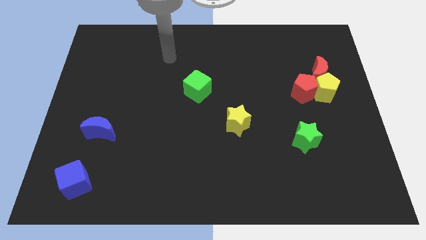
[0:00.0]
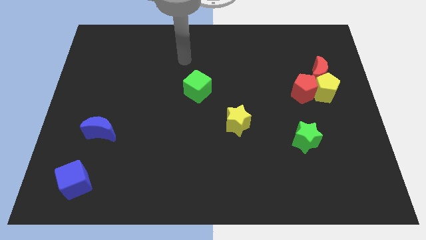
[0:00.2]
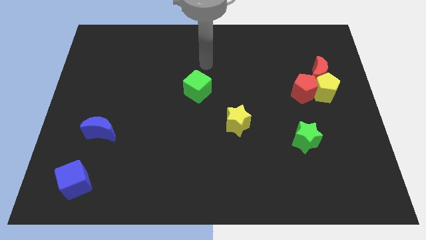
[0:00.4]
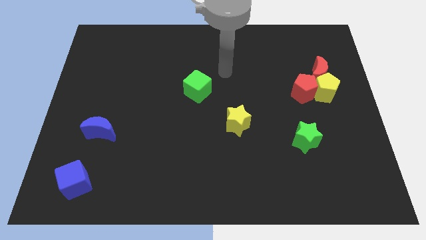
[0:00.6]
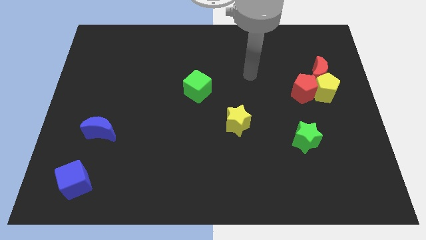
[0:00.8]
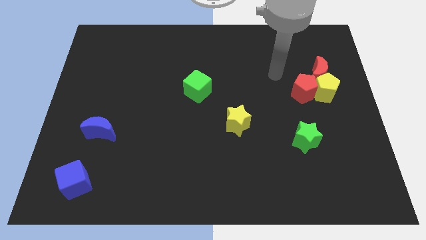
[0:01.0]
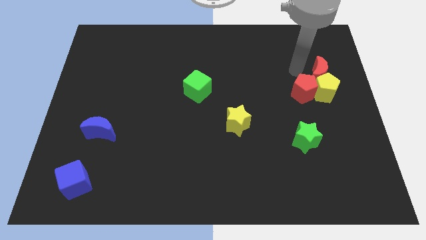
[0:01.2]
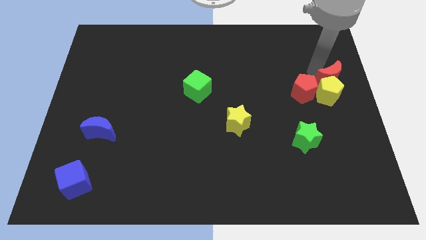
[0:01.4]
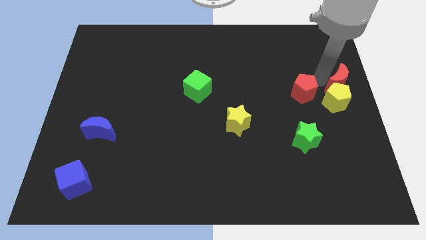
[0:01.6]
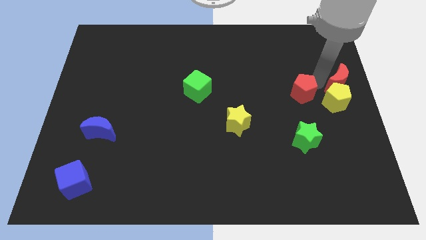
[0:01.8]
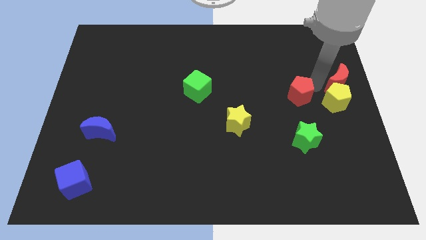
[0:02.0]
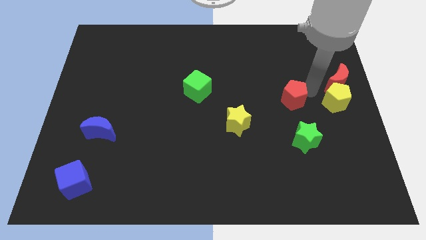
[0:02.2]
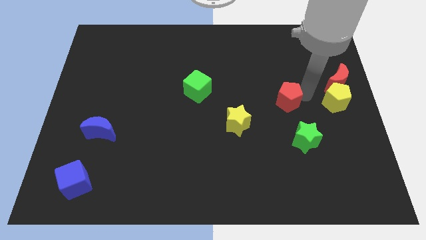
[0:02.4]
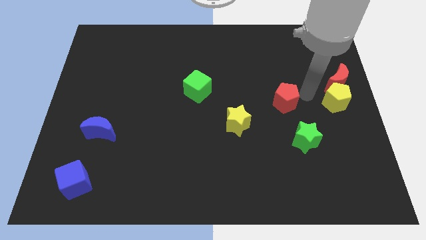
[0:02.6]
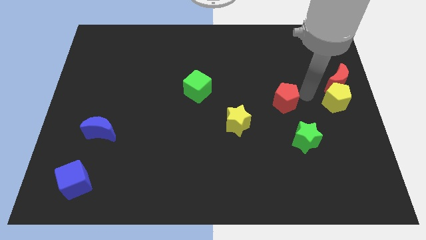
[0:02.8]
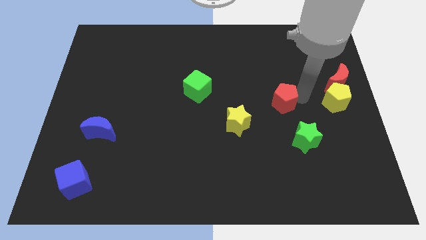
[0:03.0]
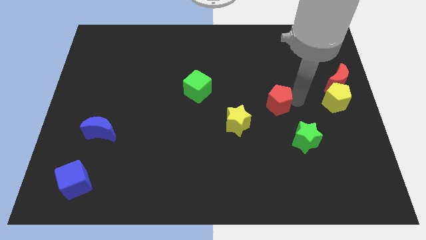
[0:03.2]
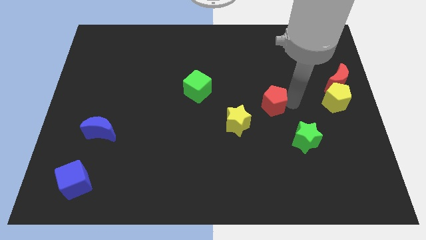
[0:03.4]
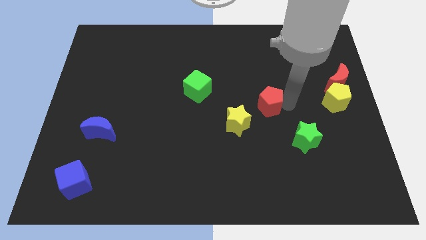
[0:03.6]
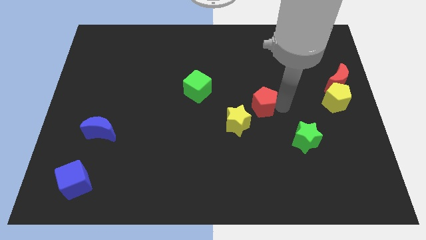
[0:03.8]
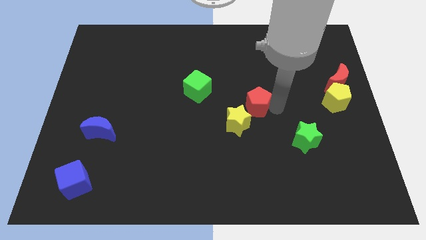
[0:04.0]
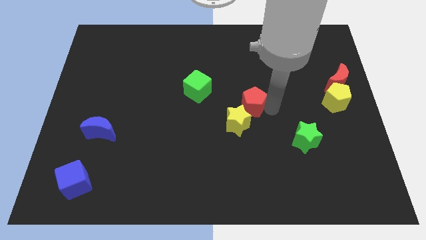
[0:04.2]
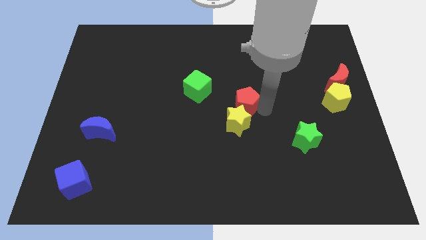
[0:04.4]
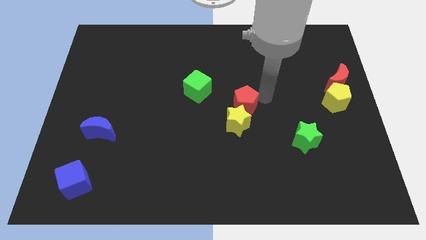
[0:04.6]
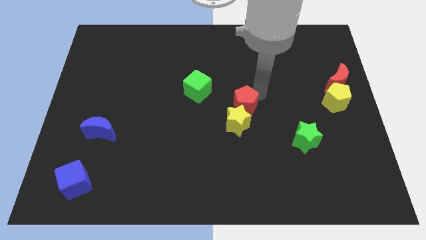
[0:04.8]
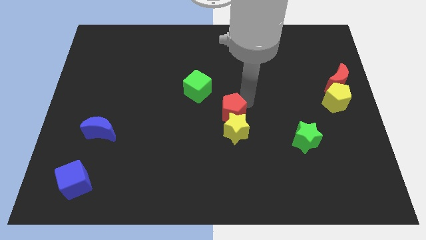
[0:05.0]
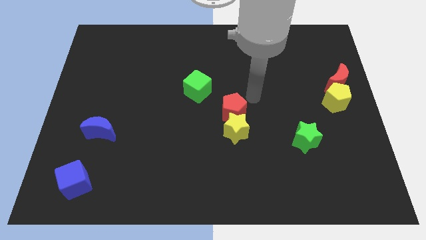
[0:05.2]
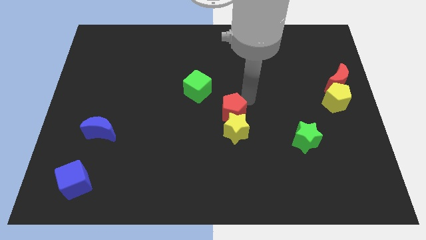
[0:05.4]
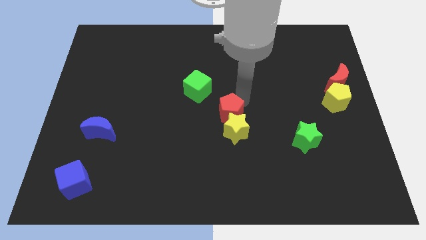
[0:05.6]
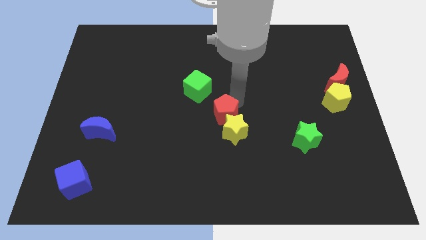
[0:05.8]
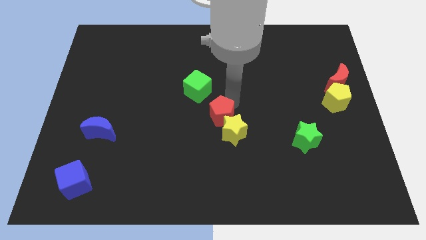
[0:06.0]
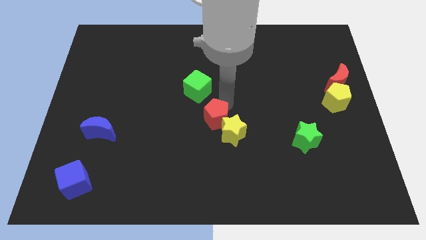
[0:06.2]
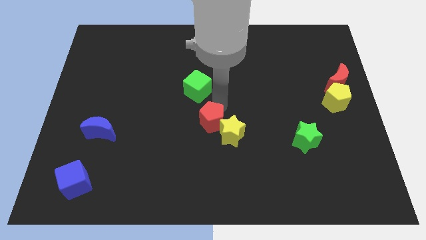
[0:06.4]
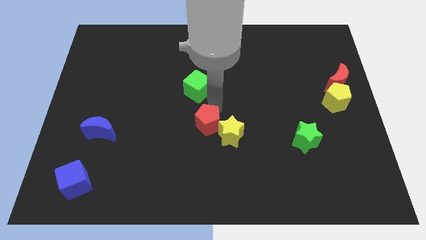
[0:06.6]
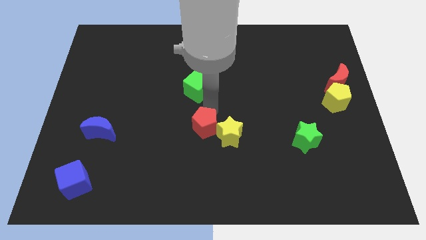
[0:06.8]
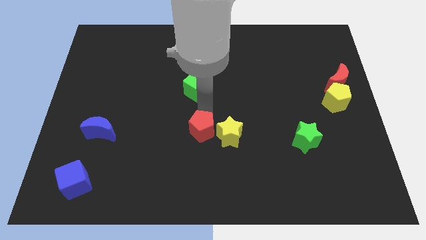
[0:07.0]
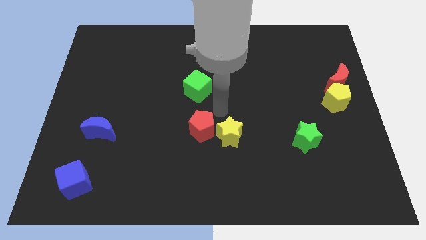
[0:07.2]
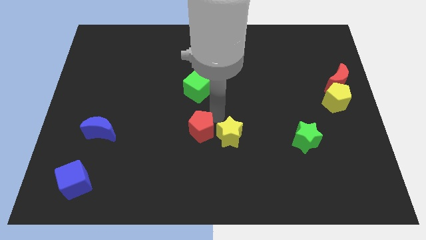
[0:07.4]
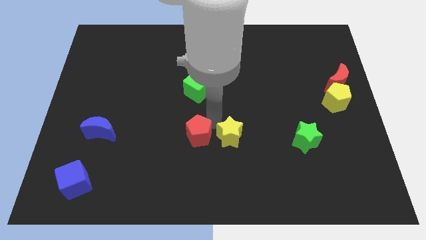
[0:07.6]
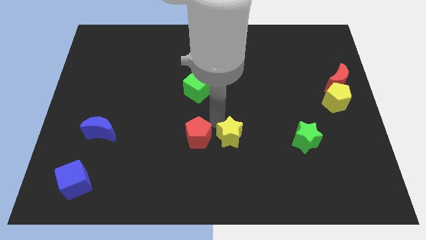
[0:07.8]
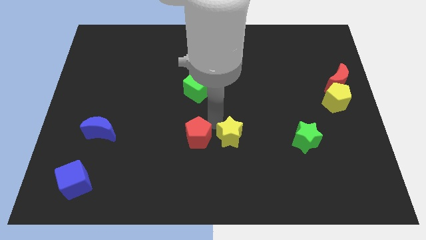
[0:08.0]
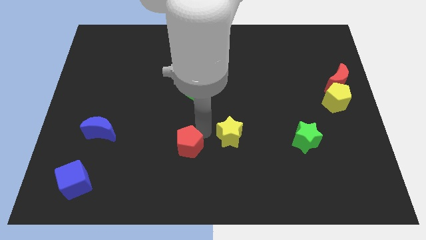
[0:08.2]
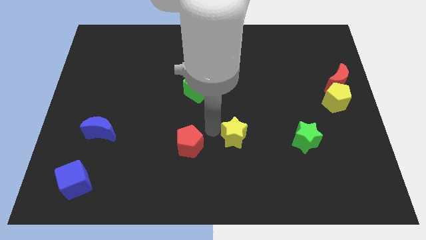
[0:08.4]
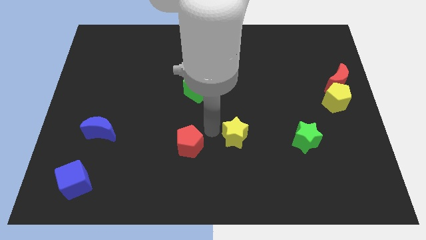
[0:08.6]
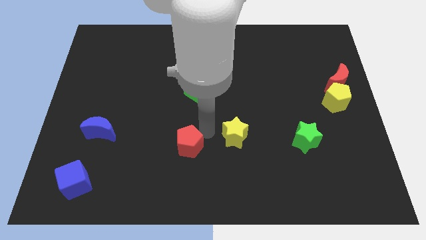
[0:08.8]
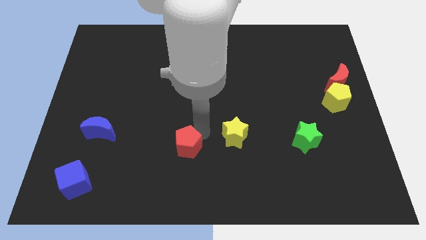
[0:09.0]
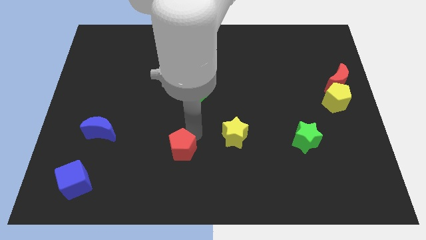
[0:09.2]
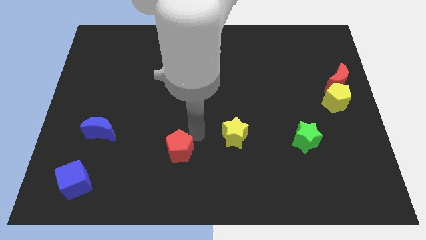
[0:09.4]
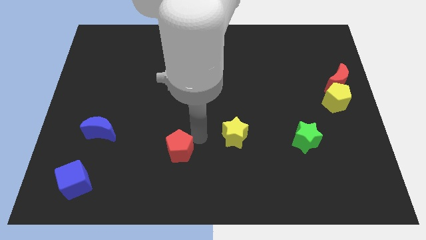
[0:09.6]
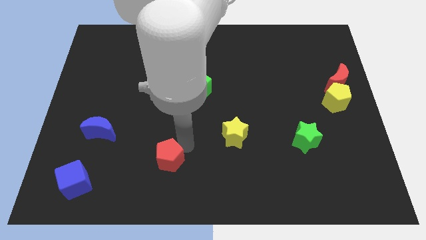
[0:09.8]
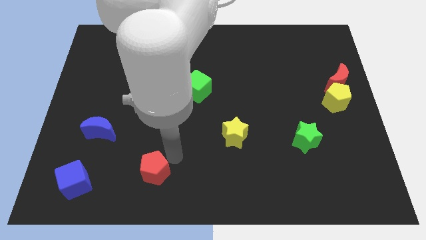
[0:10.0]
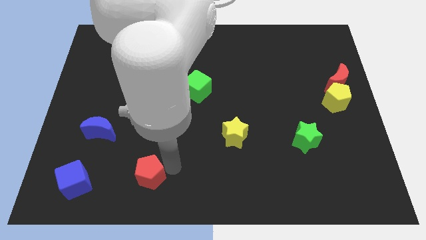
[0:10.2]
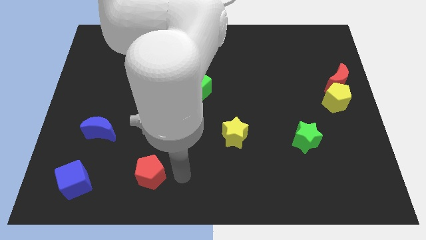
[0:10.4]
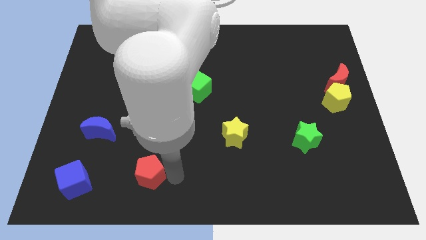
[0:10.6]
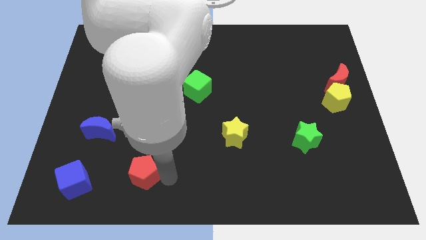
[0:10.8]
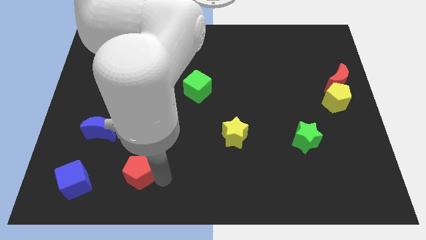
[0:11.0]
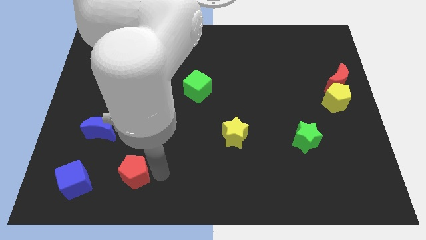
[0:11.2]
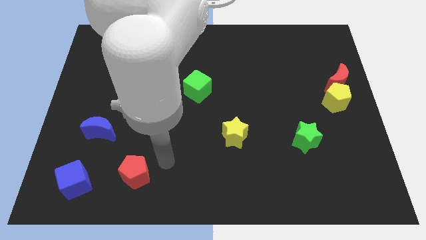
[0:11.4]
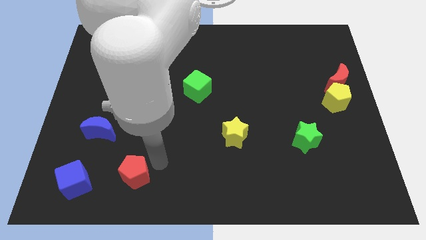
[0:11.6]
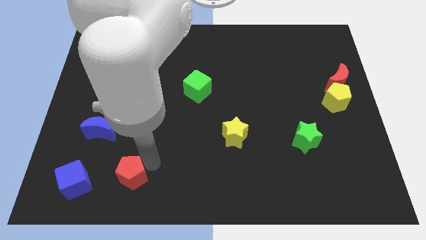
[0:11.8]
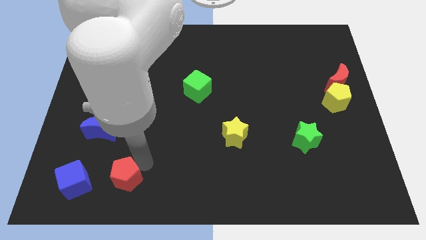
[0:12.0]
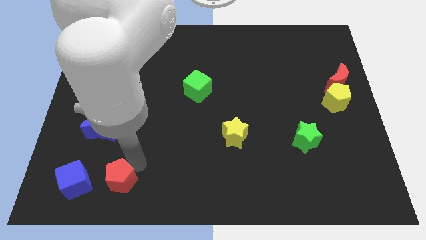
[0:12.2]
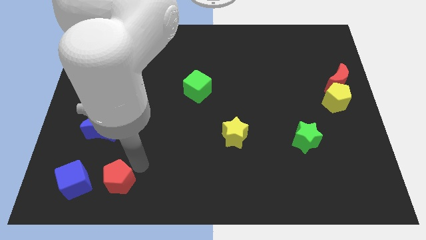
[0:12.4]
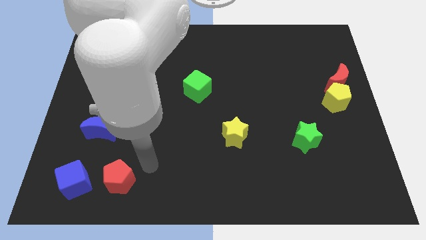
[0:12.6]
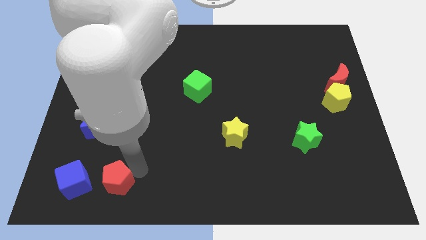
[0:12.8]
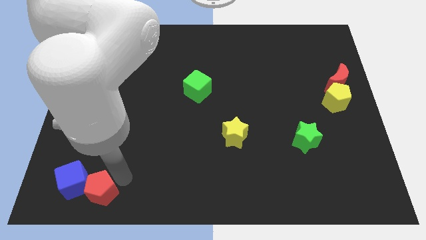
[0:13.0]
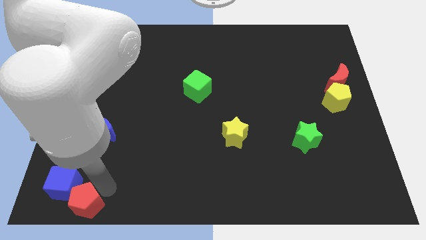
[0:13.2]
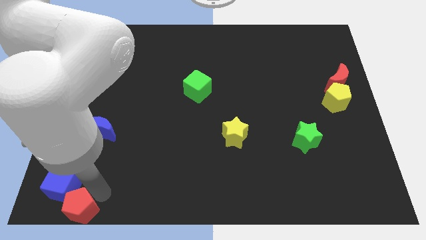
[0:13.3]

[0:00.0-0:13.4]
slide the red pentagon to the lower left corner
